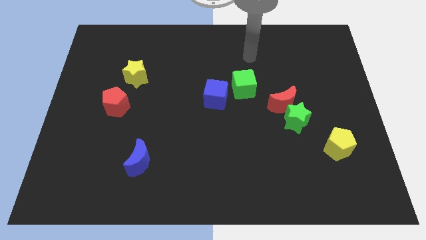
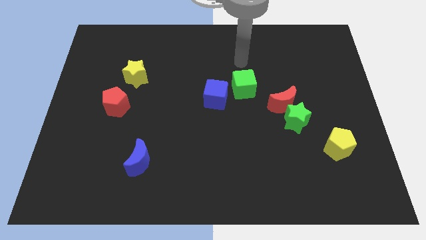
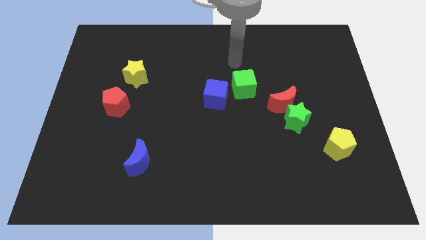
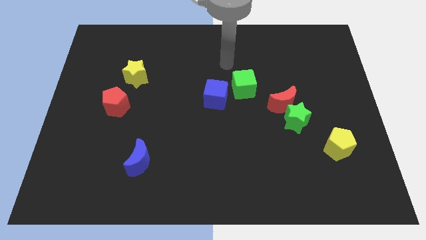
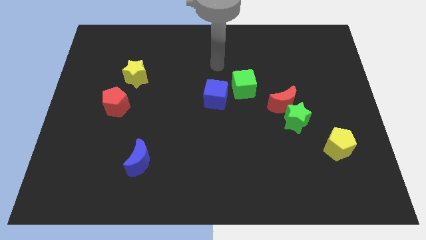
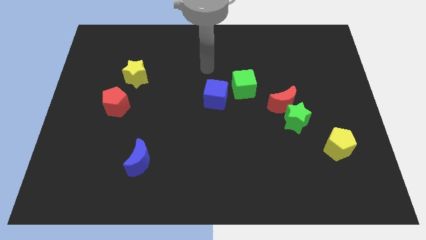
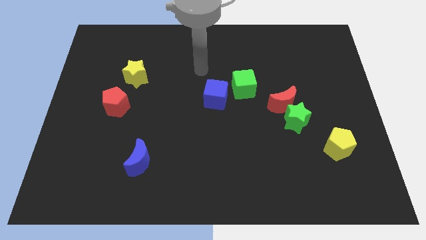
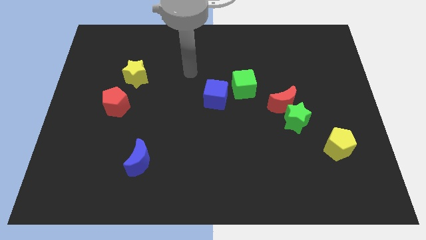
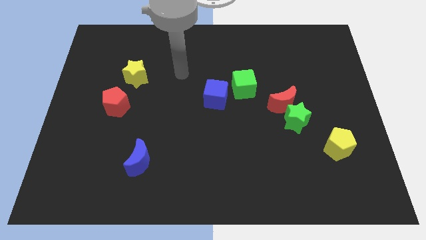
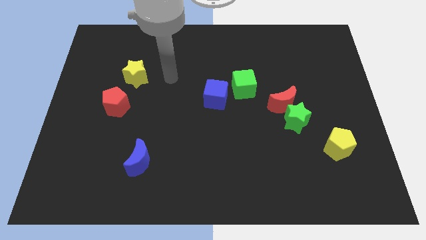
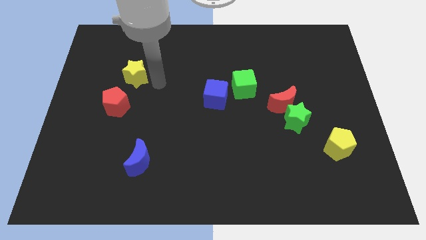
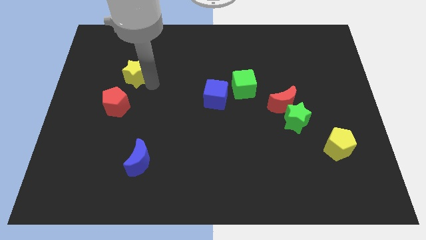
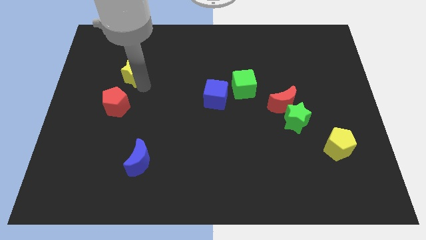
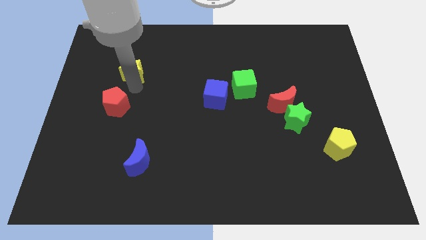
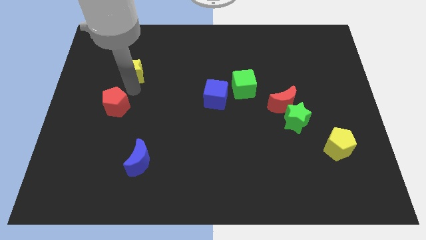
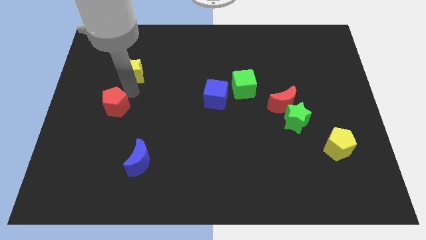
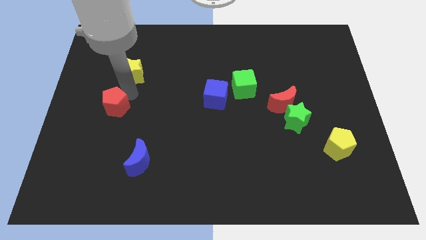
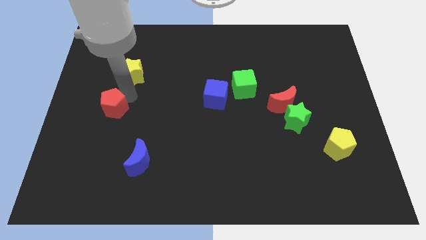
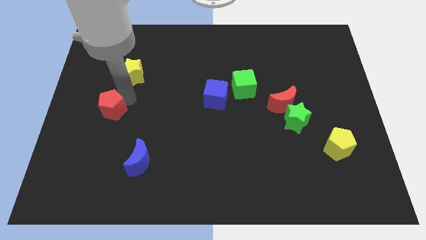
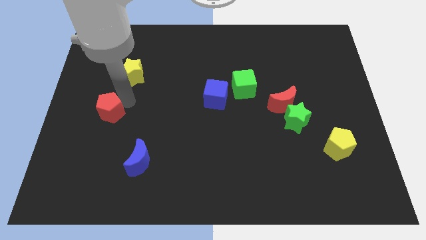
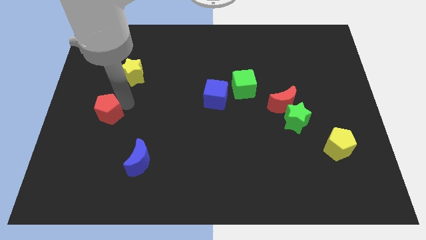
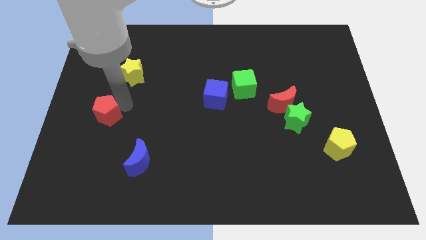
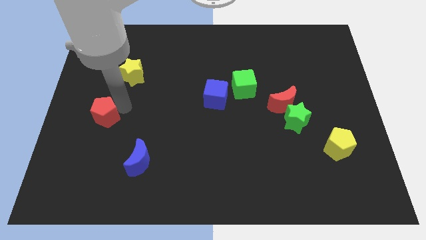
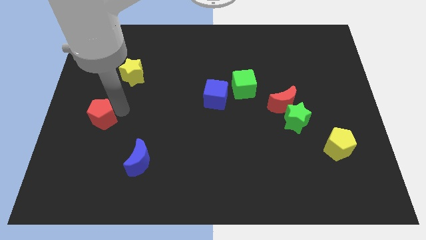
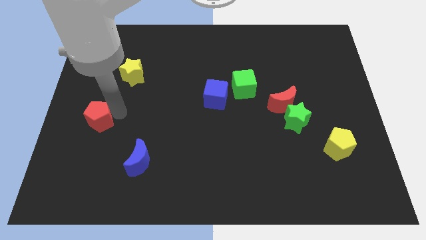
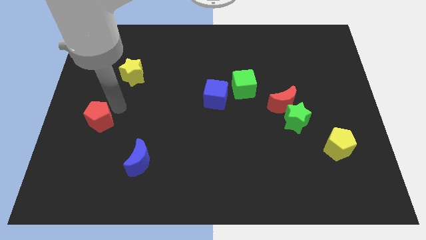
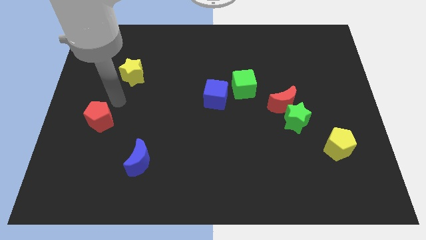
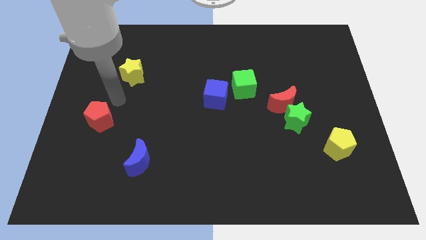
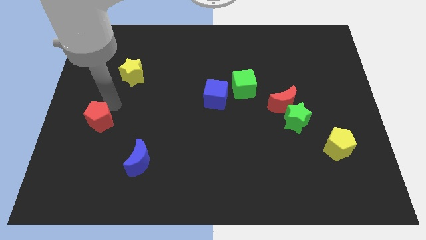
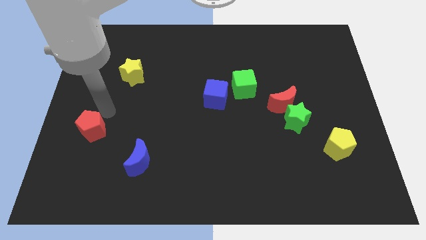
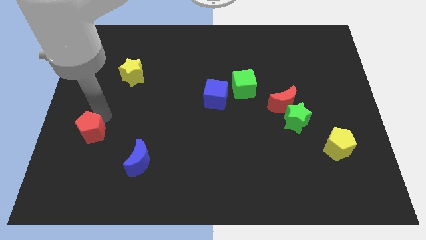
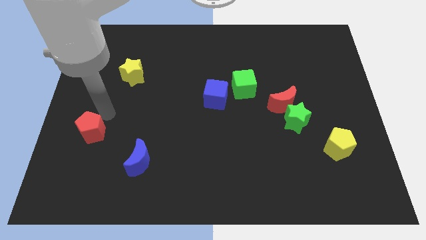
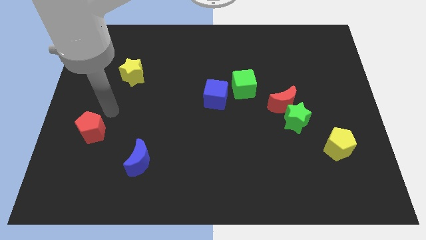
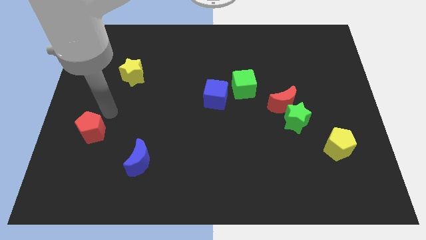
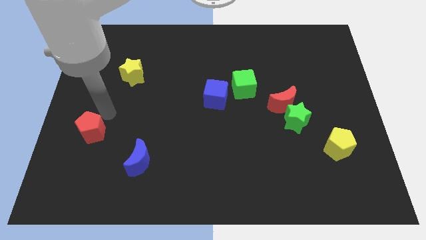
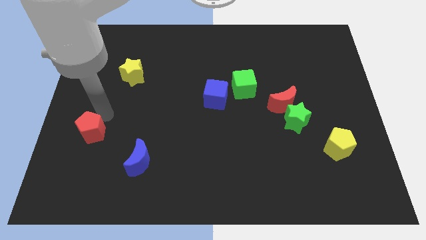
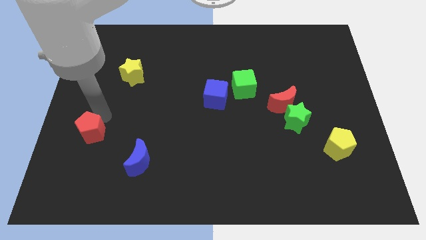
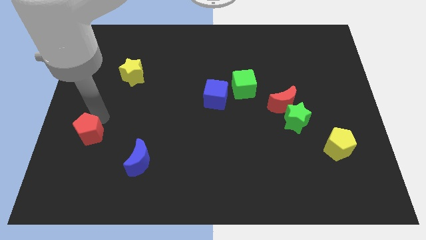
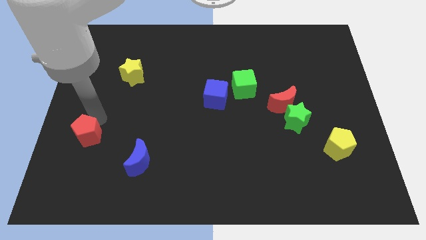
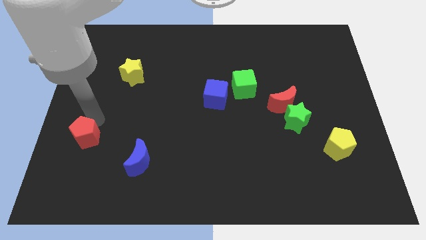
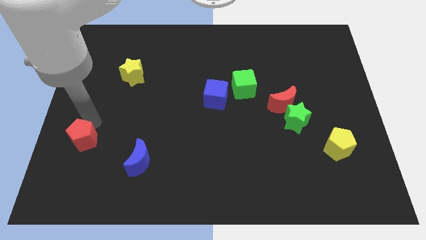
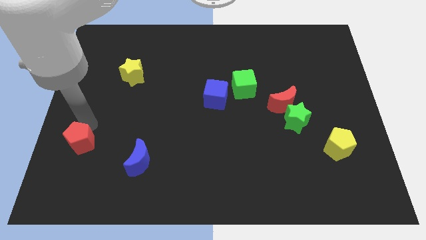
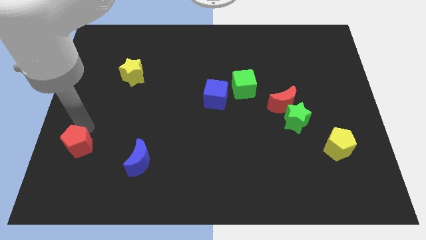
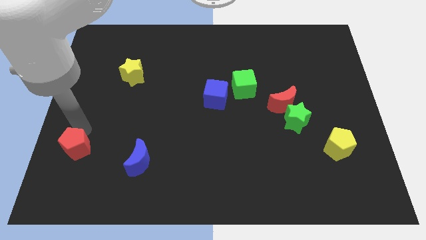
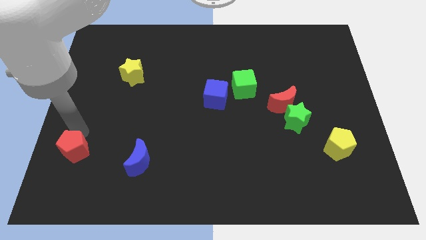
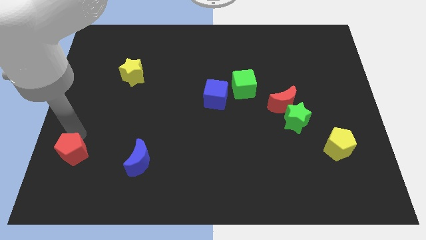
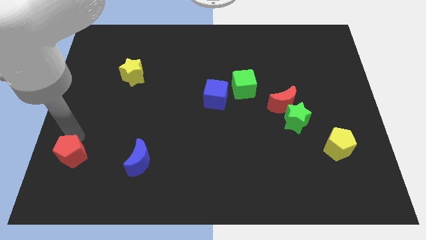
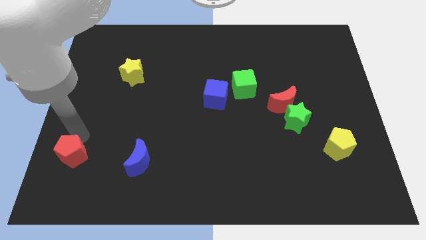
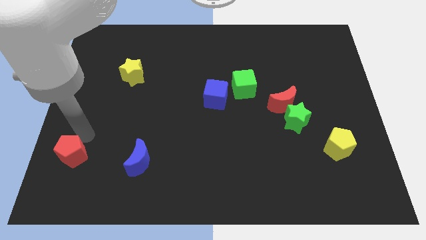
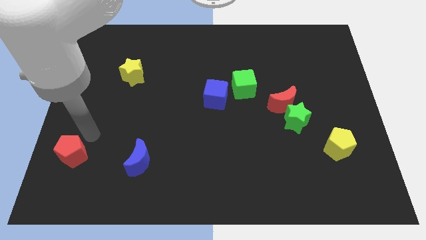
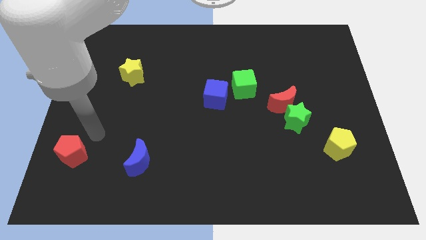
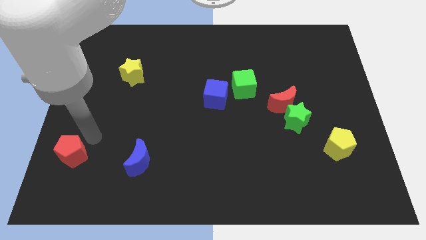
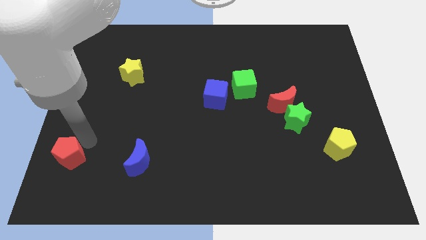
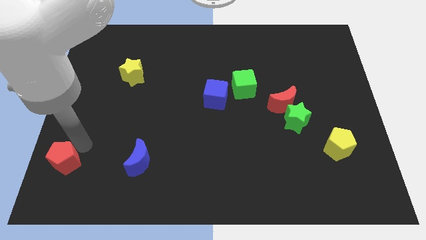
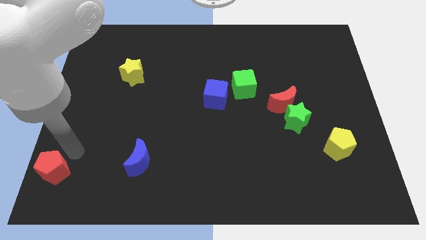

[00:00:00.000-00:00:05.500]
put the red pentagon to the bottom left of the board
